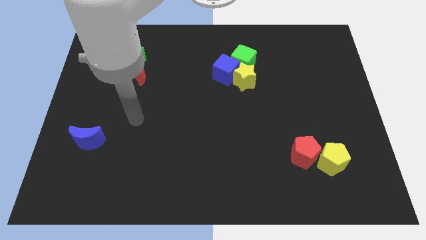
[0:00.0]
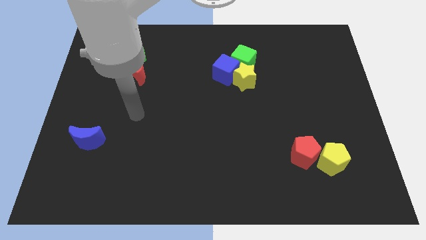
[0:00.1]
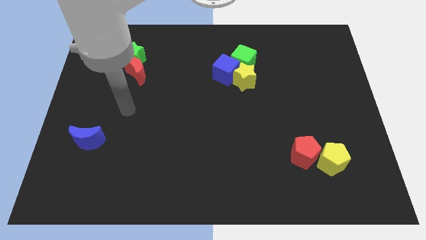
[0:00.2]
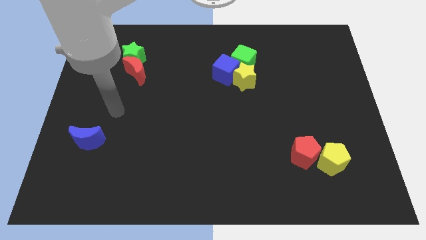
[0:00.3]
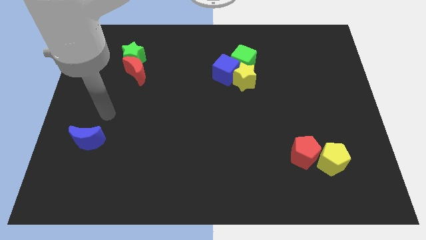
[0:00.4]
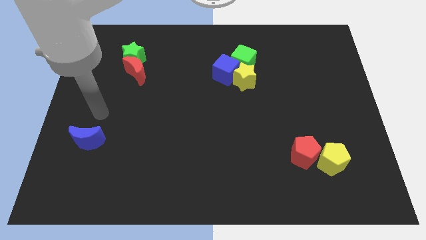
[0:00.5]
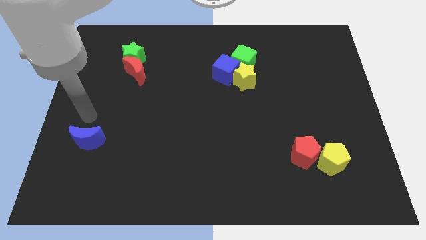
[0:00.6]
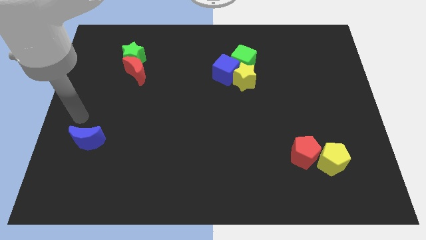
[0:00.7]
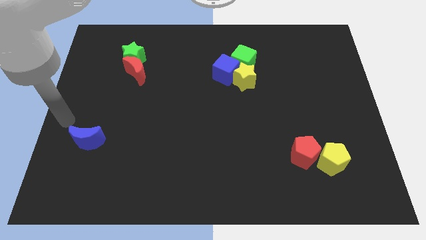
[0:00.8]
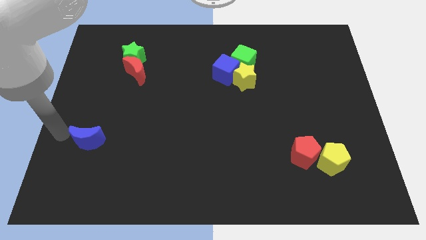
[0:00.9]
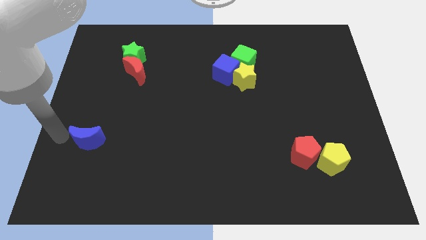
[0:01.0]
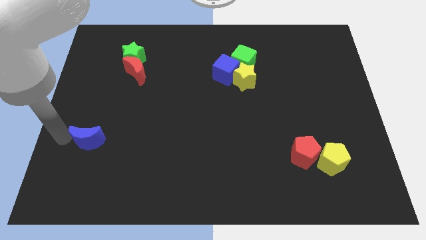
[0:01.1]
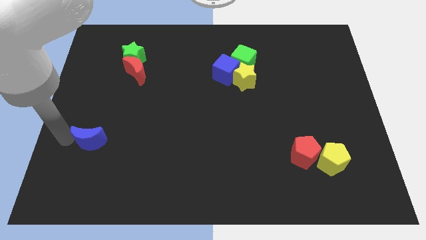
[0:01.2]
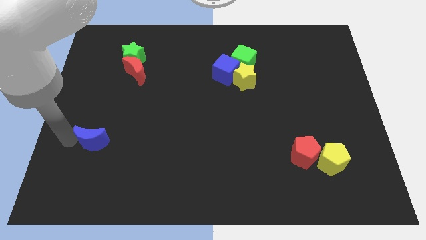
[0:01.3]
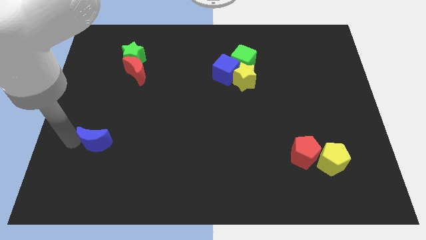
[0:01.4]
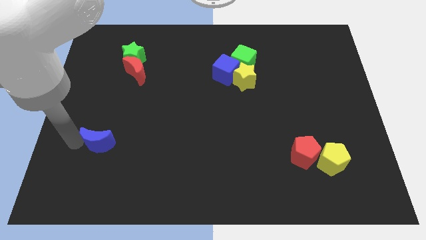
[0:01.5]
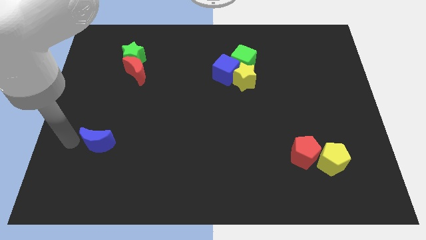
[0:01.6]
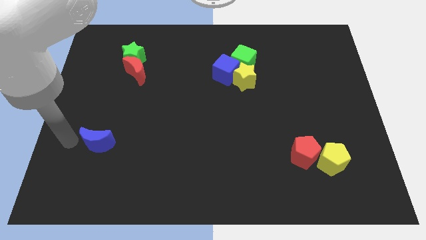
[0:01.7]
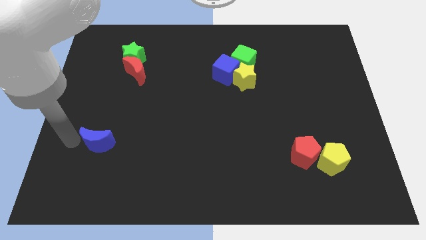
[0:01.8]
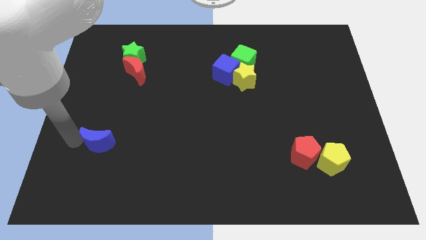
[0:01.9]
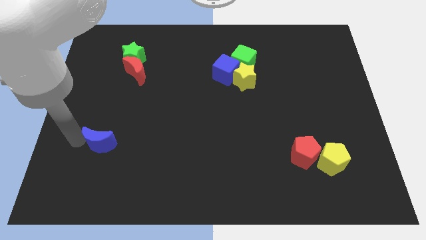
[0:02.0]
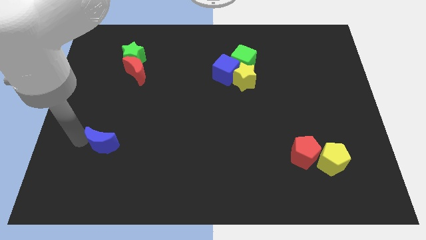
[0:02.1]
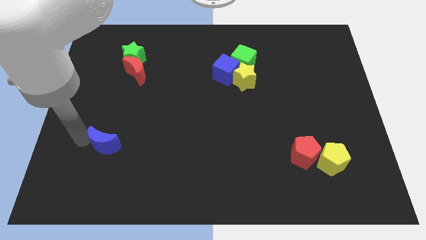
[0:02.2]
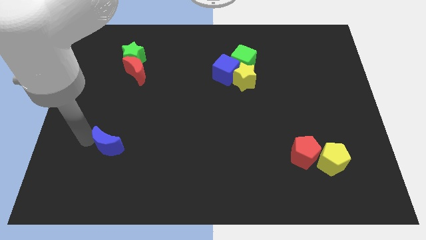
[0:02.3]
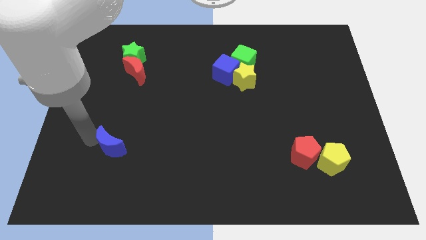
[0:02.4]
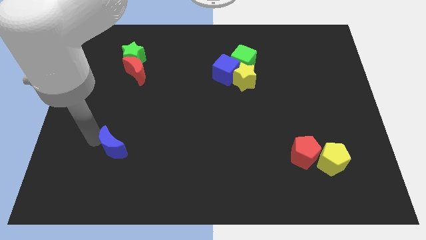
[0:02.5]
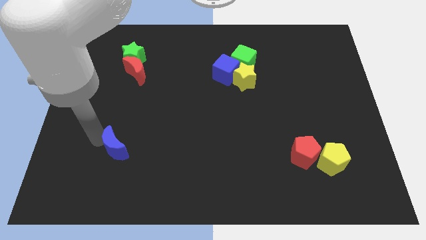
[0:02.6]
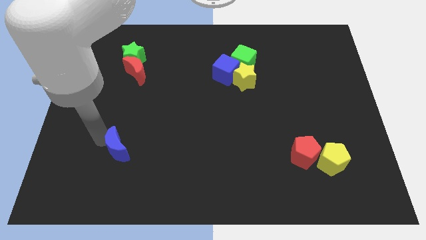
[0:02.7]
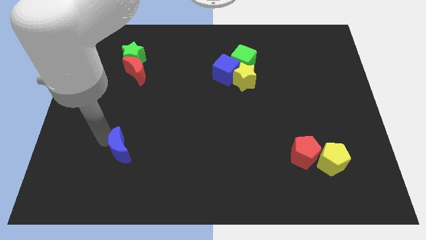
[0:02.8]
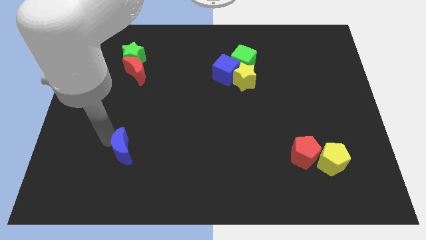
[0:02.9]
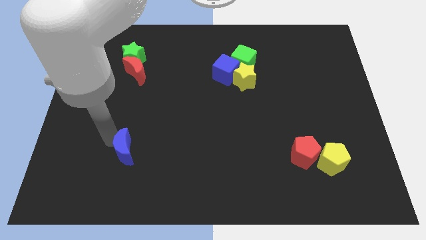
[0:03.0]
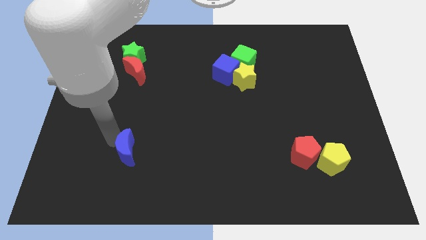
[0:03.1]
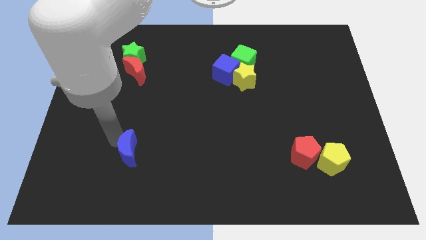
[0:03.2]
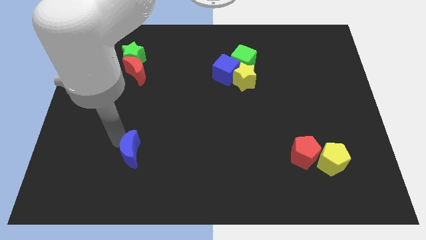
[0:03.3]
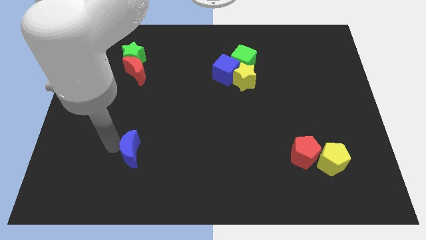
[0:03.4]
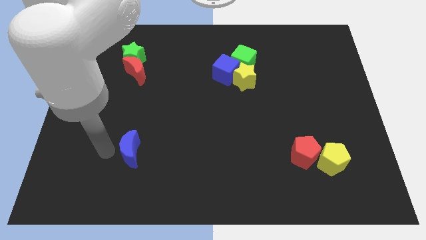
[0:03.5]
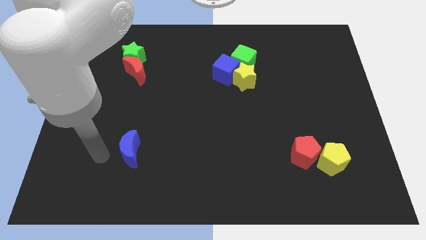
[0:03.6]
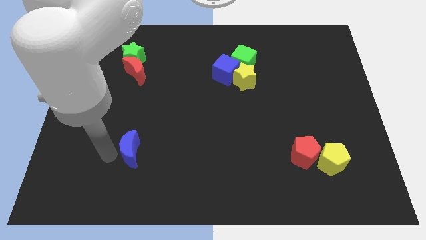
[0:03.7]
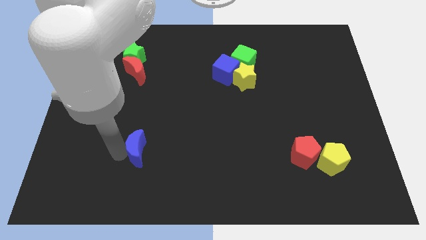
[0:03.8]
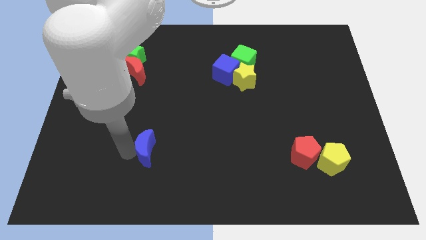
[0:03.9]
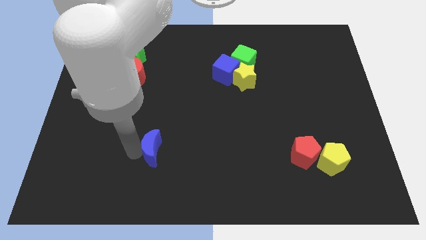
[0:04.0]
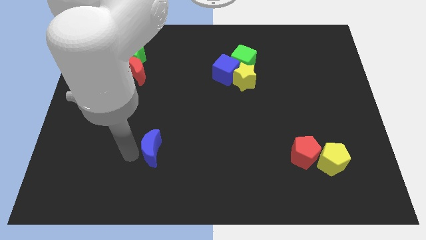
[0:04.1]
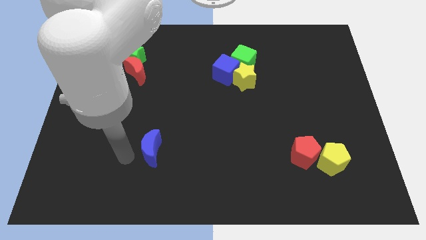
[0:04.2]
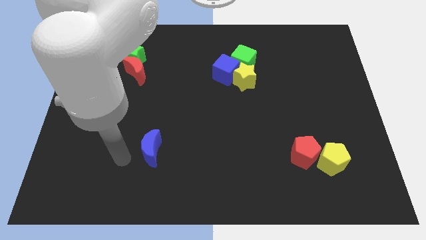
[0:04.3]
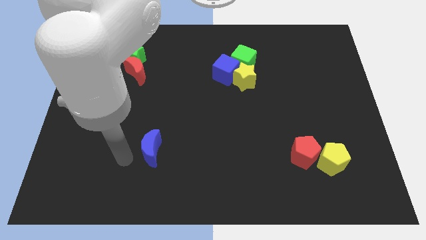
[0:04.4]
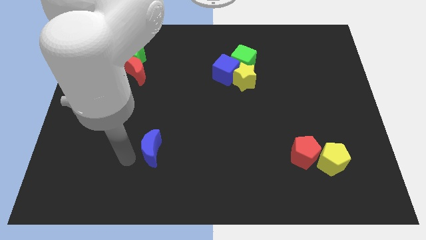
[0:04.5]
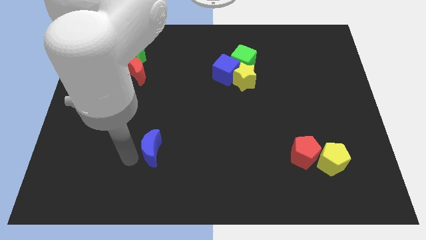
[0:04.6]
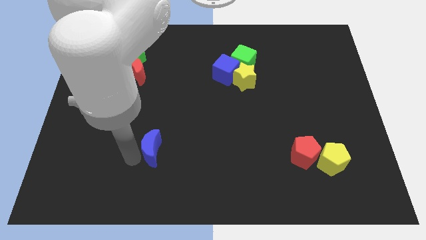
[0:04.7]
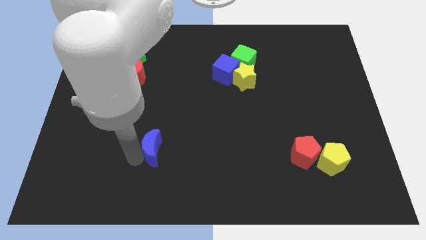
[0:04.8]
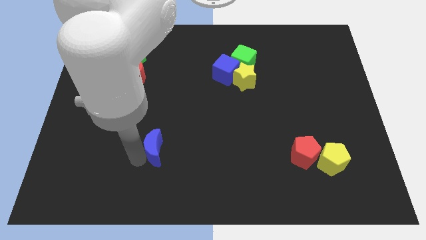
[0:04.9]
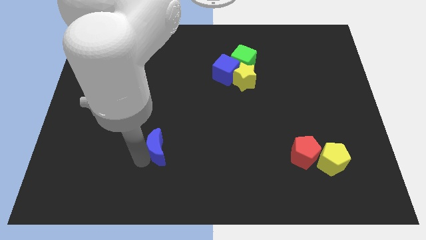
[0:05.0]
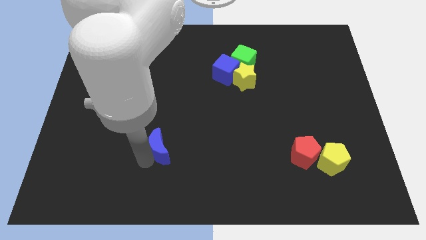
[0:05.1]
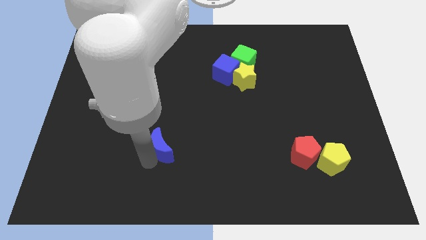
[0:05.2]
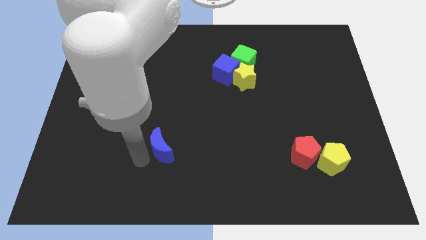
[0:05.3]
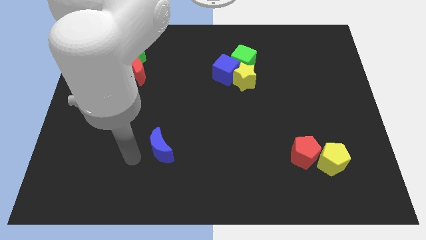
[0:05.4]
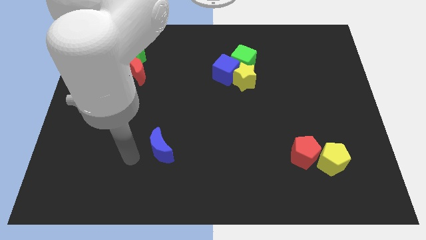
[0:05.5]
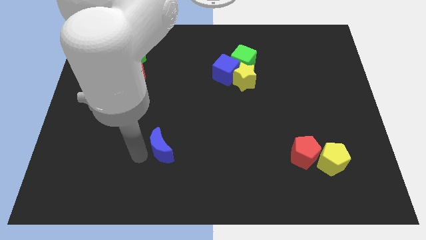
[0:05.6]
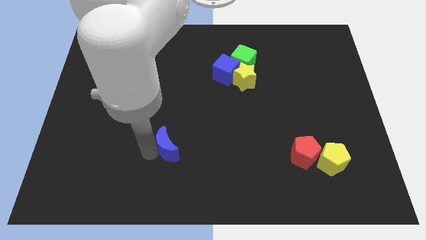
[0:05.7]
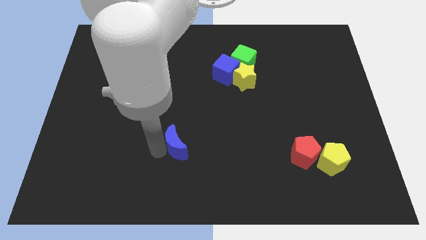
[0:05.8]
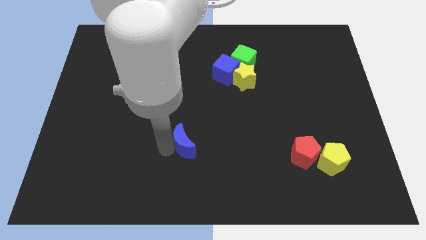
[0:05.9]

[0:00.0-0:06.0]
slide the blue moon to the right

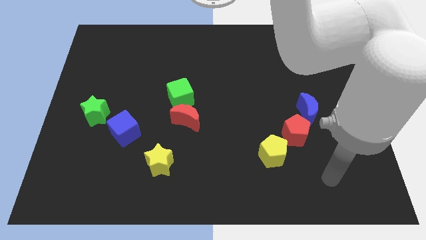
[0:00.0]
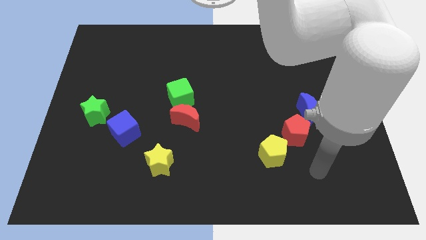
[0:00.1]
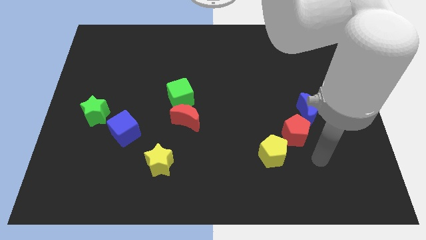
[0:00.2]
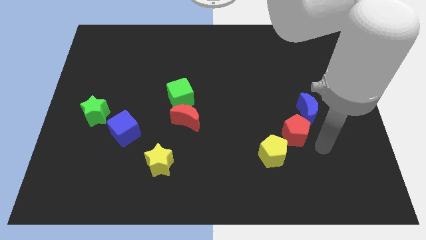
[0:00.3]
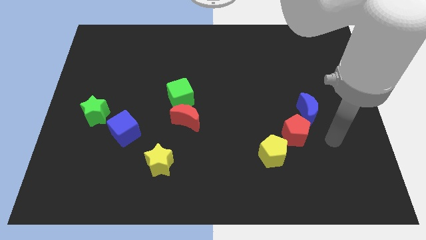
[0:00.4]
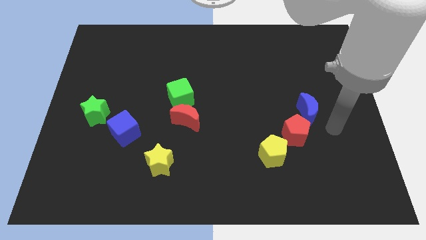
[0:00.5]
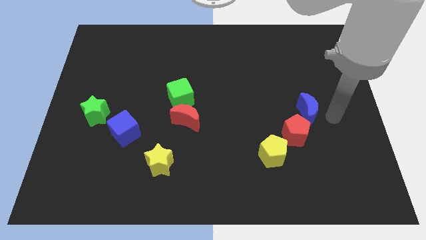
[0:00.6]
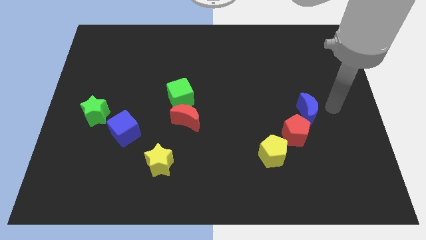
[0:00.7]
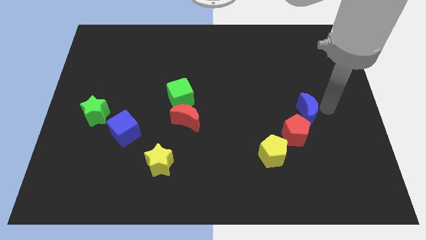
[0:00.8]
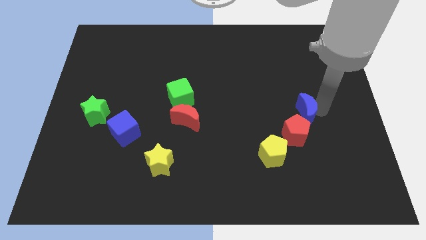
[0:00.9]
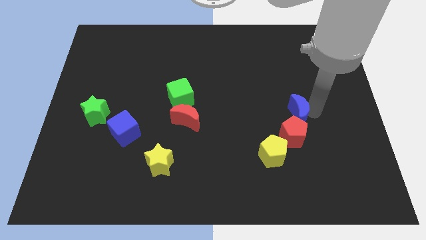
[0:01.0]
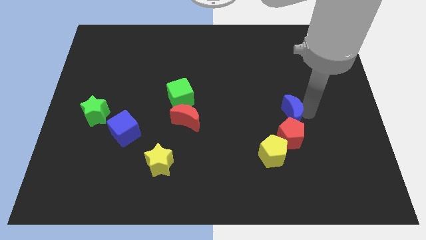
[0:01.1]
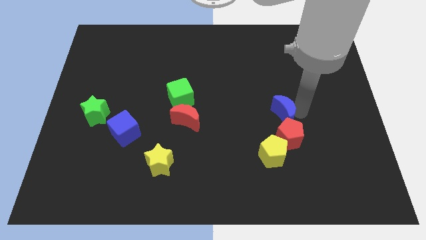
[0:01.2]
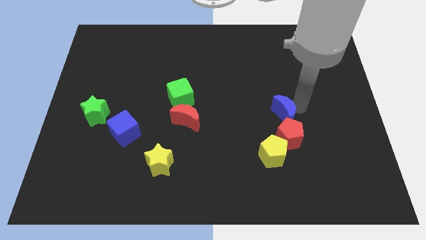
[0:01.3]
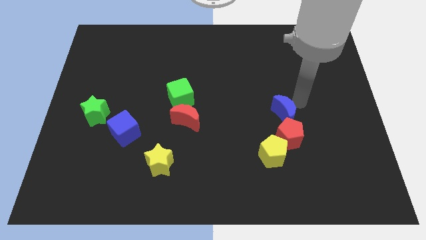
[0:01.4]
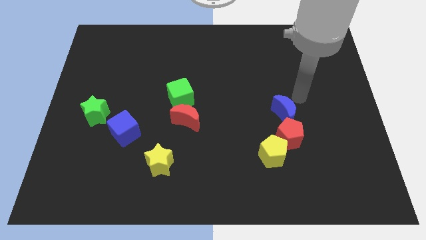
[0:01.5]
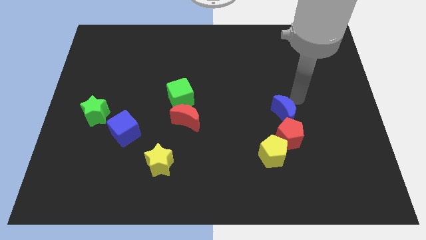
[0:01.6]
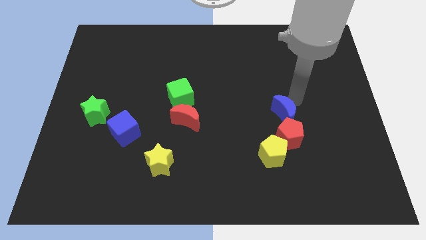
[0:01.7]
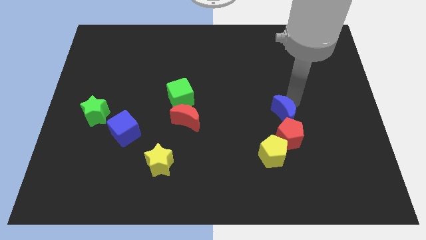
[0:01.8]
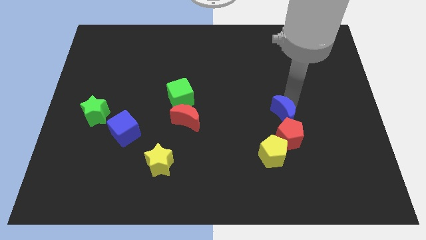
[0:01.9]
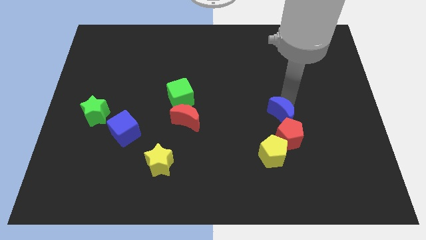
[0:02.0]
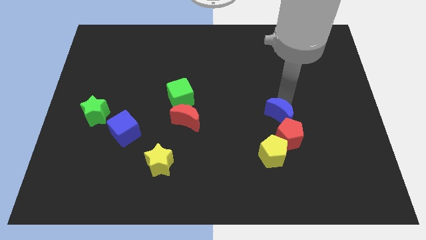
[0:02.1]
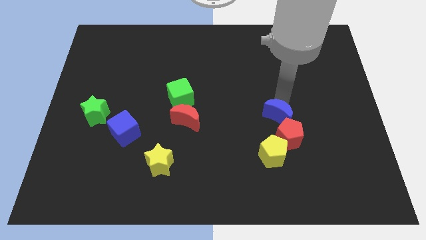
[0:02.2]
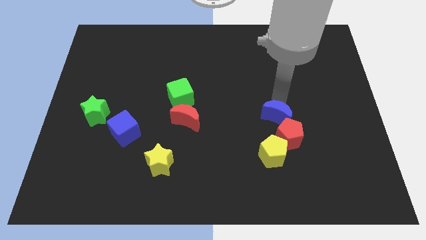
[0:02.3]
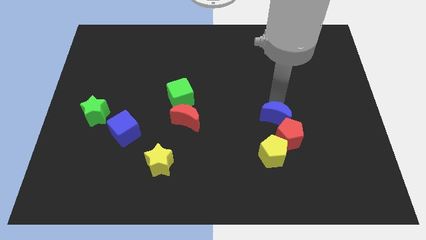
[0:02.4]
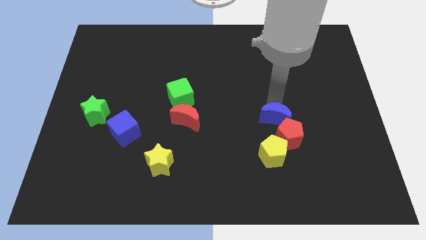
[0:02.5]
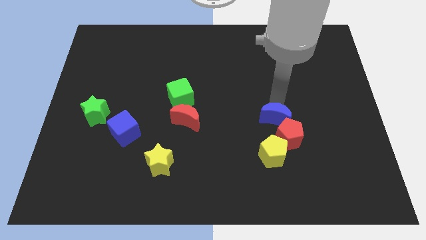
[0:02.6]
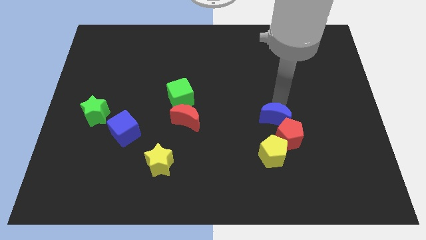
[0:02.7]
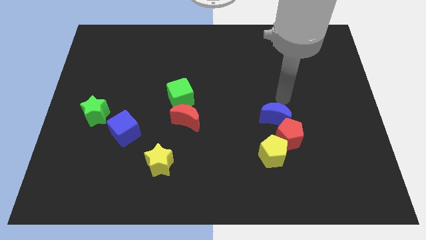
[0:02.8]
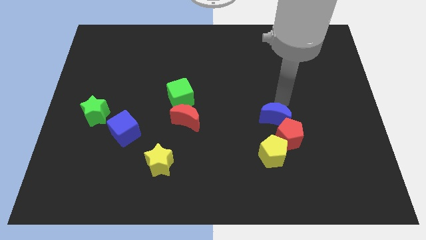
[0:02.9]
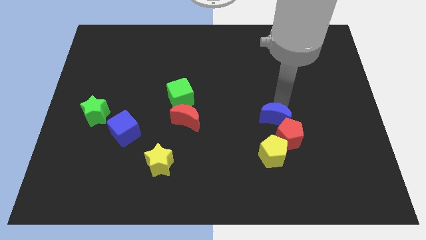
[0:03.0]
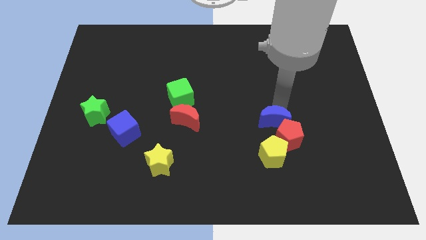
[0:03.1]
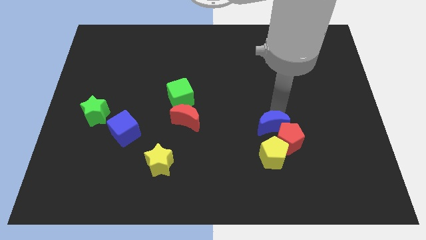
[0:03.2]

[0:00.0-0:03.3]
slightly move the blue moon downwards and left diagonally
